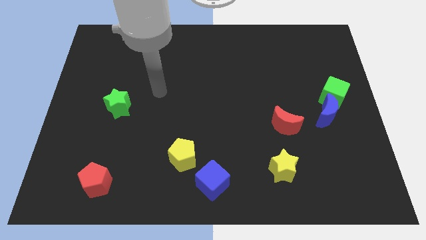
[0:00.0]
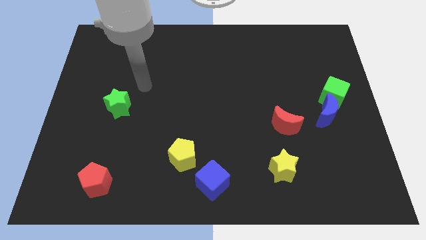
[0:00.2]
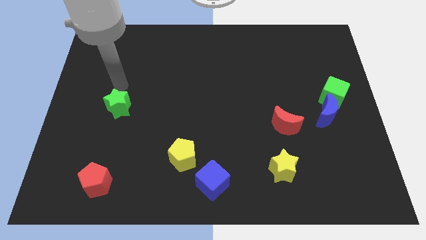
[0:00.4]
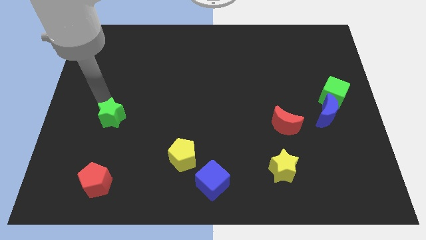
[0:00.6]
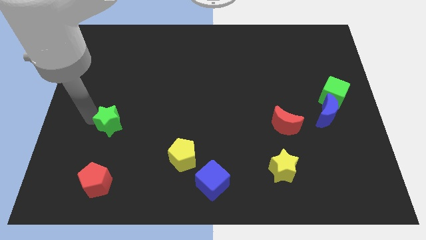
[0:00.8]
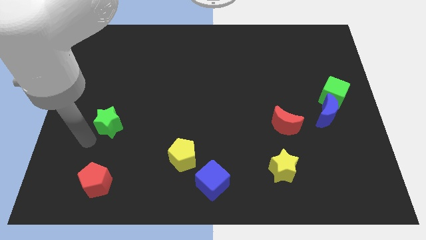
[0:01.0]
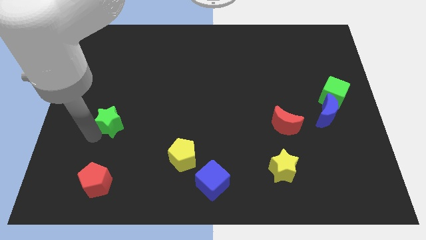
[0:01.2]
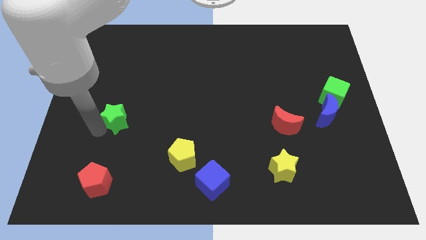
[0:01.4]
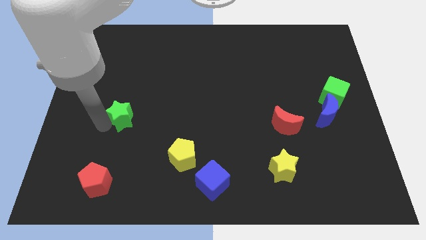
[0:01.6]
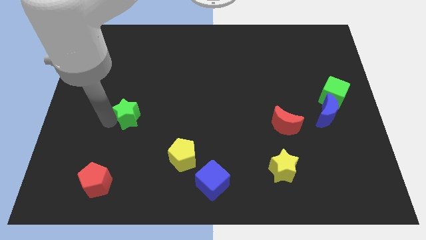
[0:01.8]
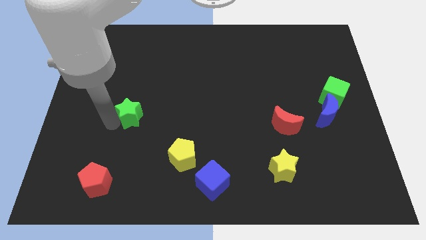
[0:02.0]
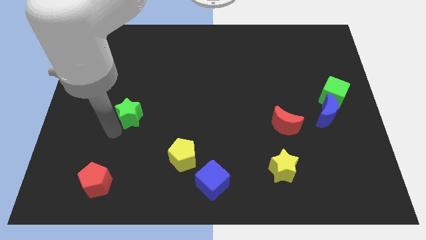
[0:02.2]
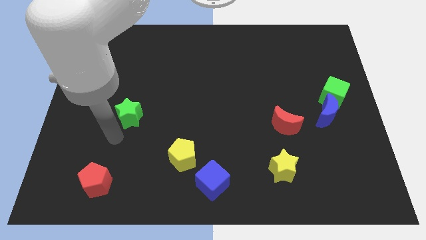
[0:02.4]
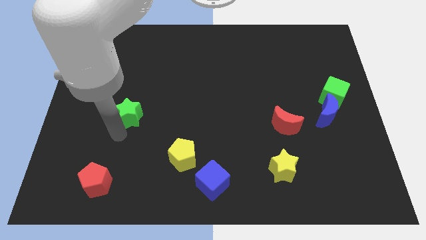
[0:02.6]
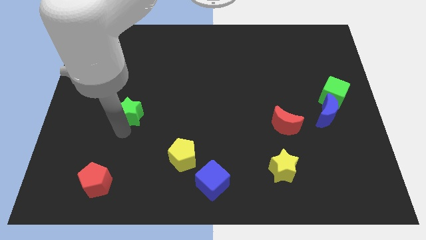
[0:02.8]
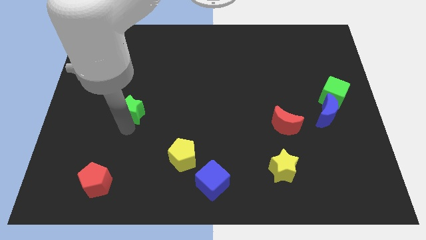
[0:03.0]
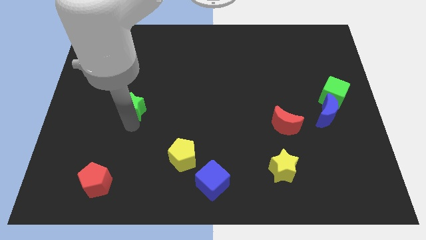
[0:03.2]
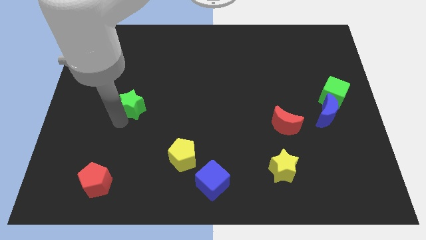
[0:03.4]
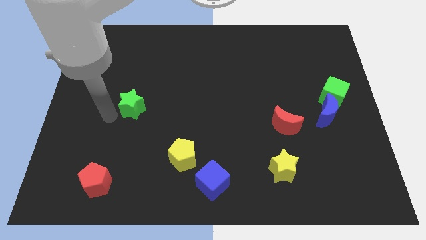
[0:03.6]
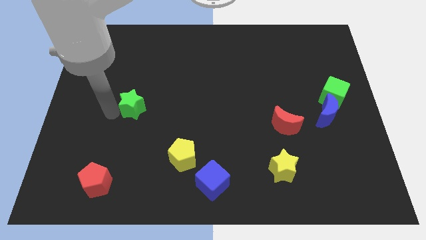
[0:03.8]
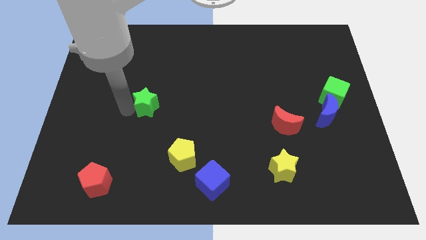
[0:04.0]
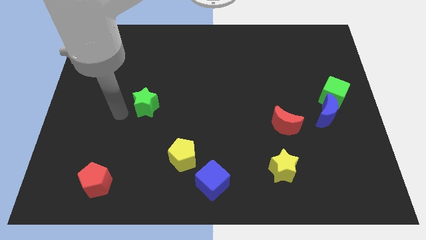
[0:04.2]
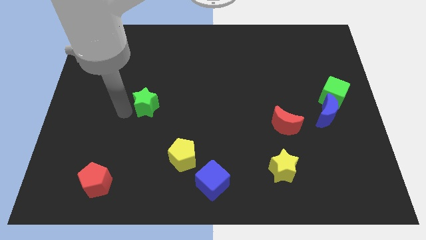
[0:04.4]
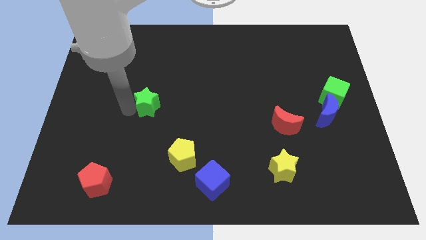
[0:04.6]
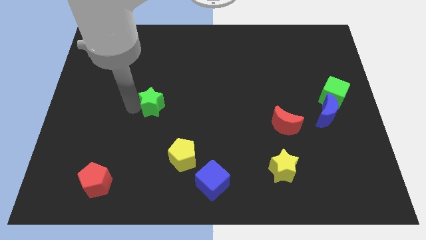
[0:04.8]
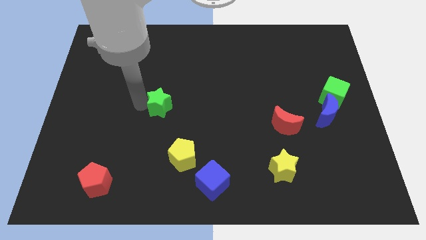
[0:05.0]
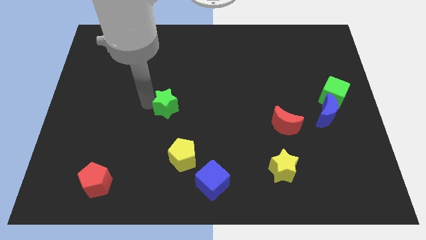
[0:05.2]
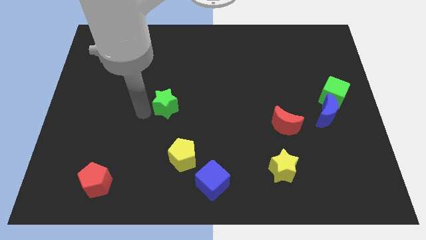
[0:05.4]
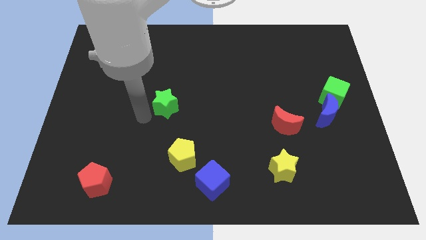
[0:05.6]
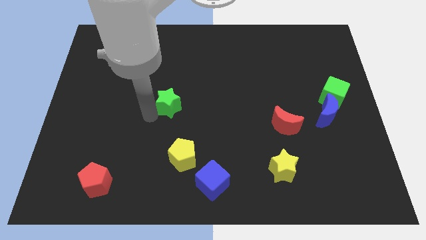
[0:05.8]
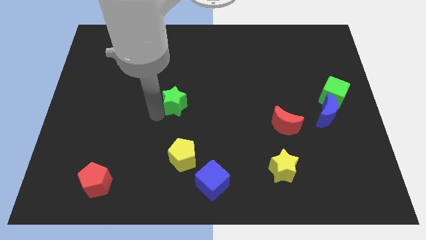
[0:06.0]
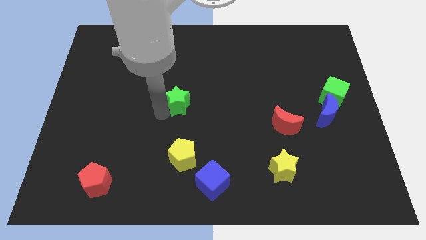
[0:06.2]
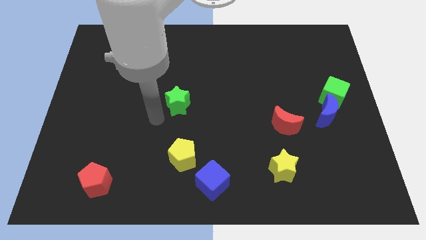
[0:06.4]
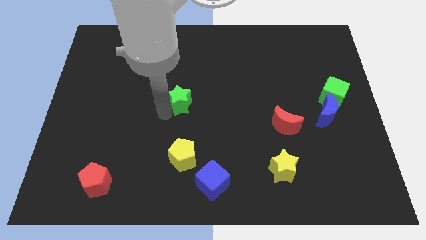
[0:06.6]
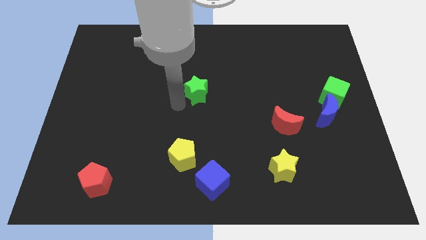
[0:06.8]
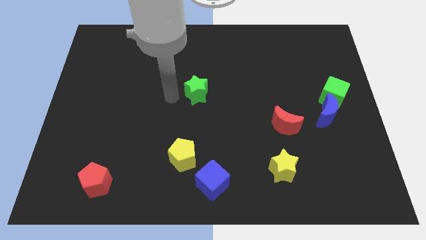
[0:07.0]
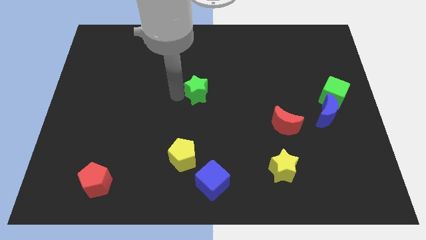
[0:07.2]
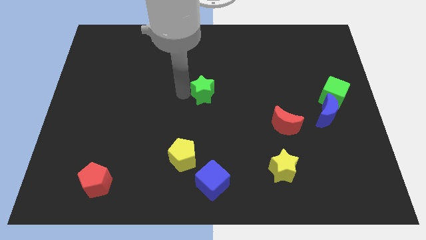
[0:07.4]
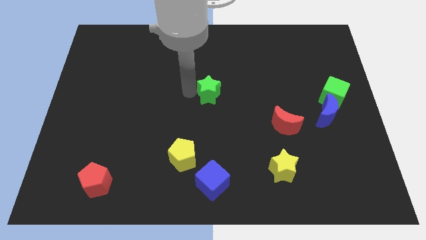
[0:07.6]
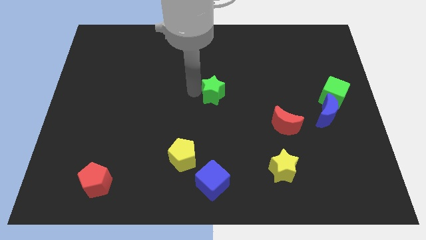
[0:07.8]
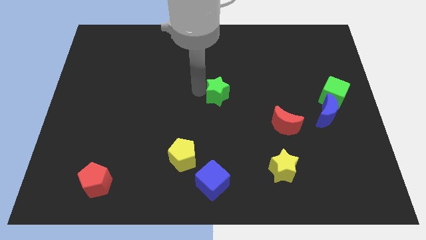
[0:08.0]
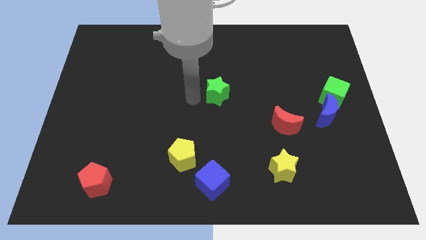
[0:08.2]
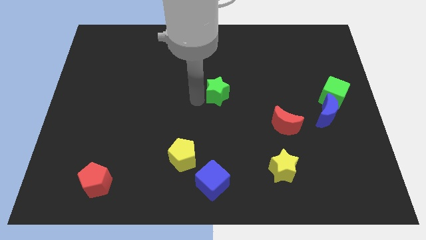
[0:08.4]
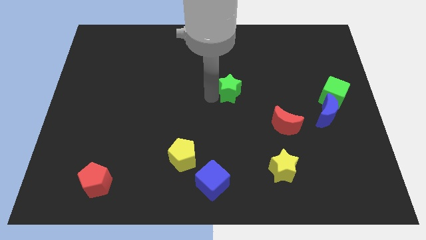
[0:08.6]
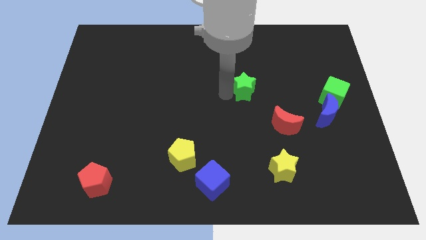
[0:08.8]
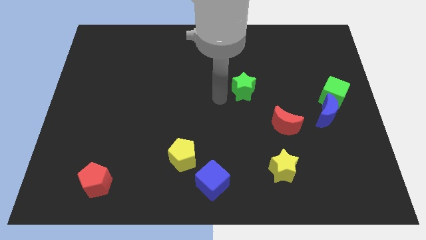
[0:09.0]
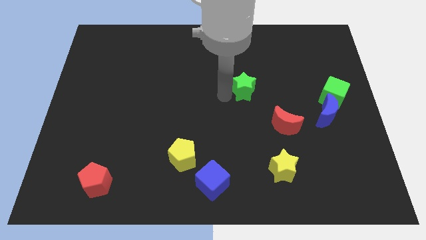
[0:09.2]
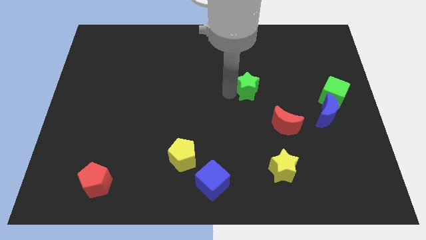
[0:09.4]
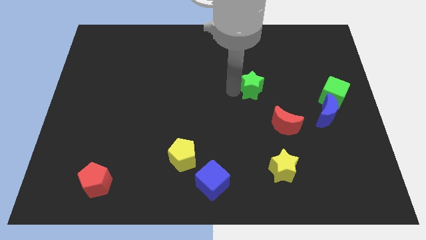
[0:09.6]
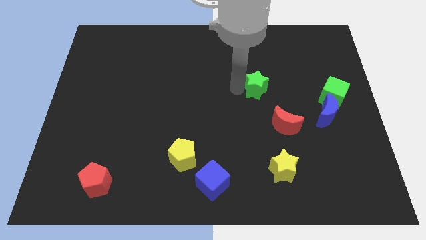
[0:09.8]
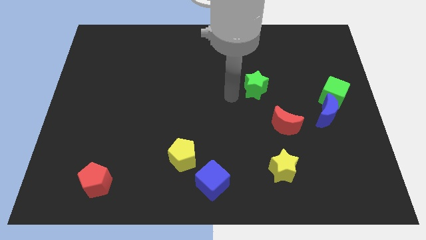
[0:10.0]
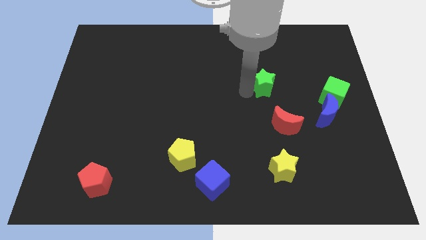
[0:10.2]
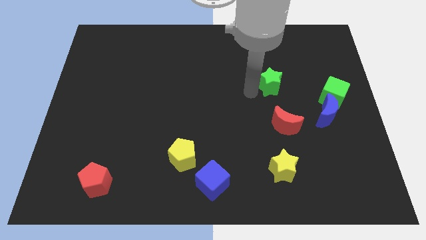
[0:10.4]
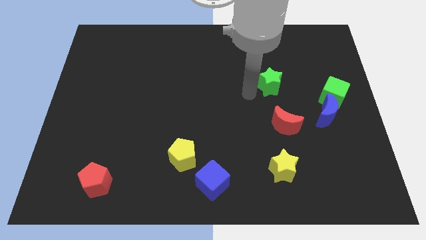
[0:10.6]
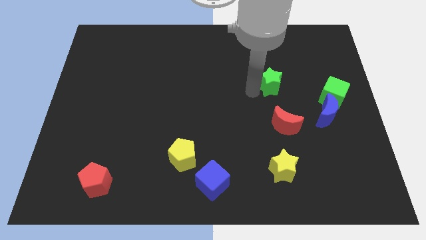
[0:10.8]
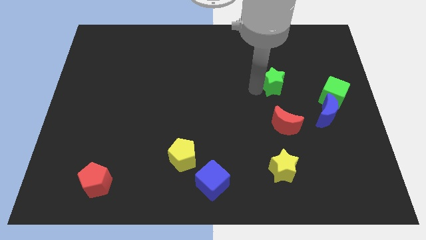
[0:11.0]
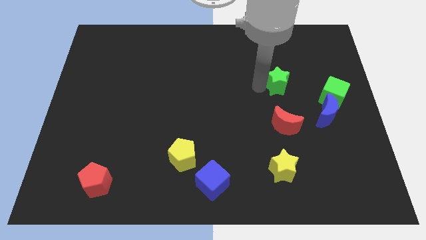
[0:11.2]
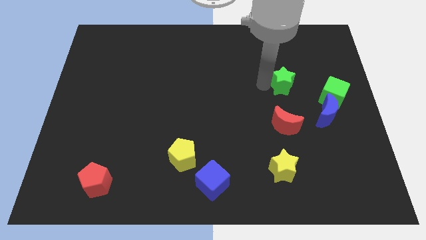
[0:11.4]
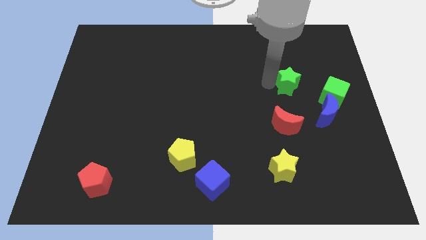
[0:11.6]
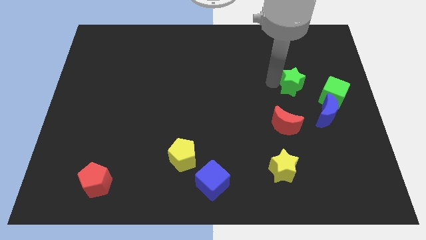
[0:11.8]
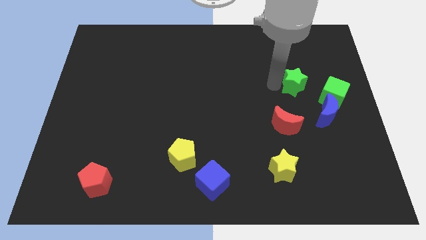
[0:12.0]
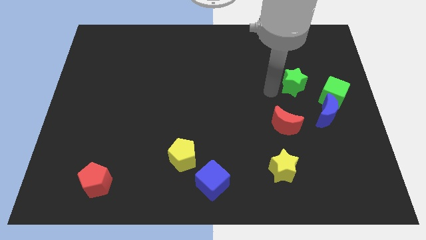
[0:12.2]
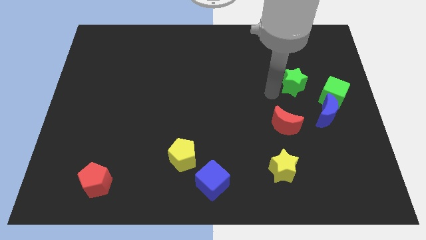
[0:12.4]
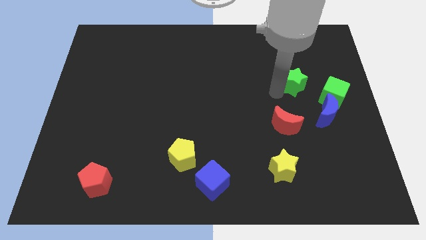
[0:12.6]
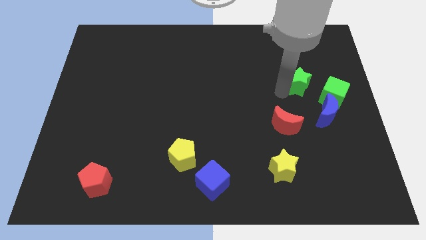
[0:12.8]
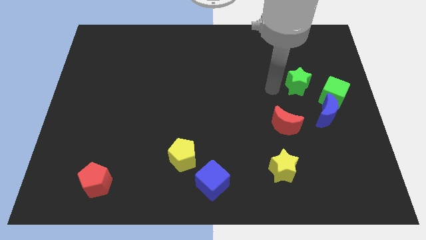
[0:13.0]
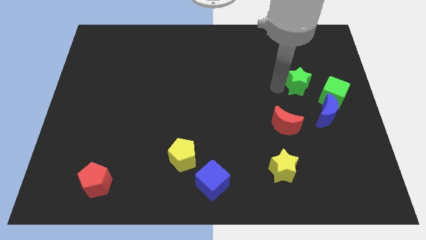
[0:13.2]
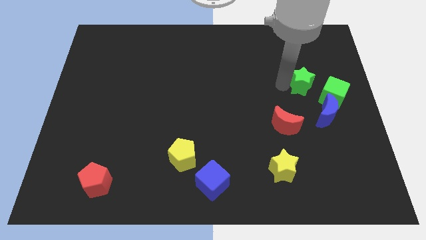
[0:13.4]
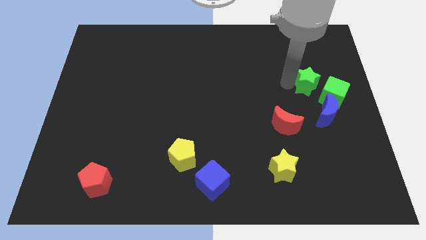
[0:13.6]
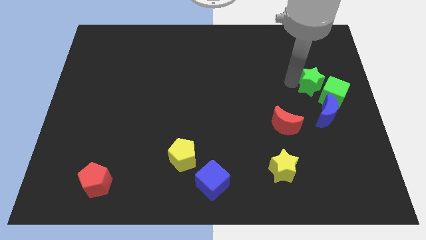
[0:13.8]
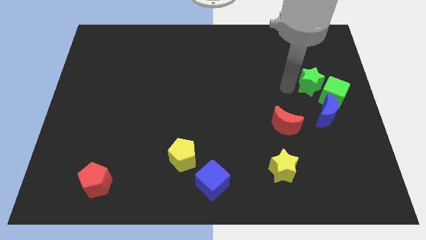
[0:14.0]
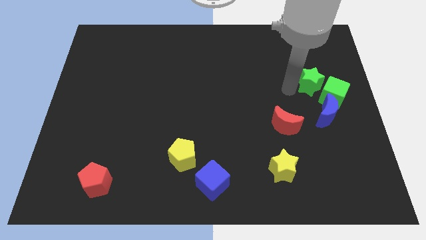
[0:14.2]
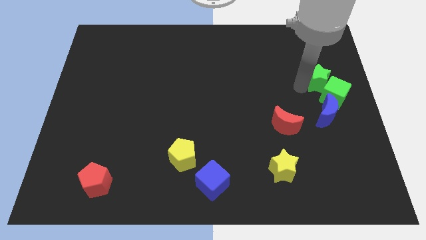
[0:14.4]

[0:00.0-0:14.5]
slide the green star to the center right
